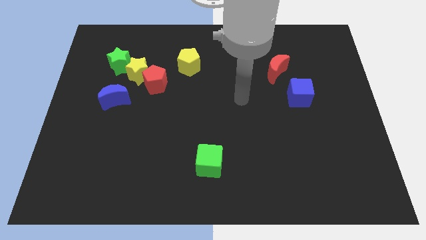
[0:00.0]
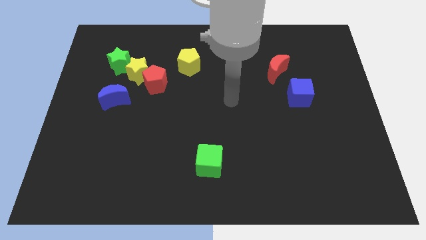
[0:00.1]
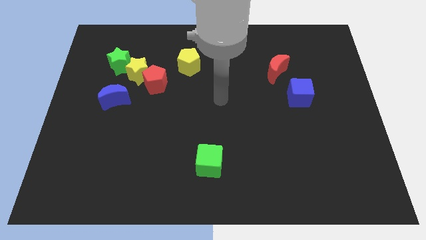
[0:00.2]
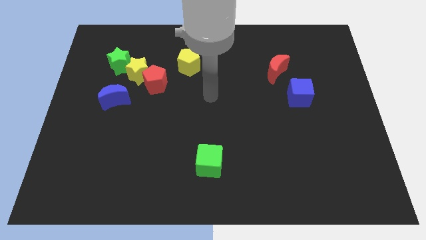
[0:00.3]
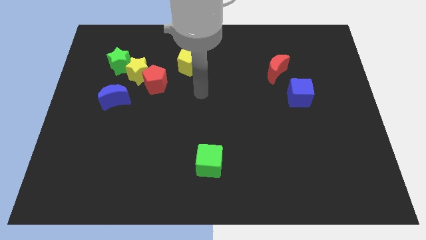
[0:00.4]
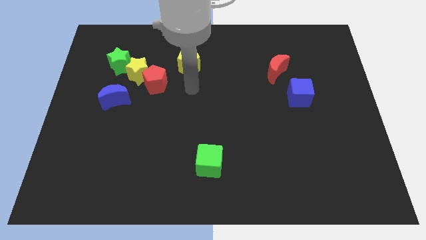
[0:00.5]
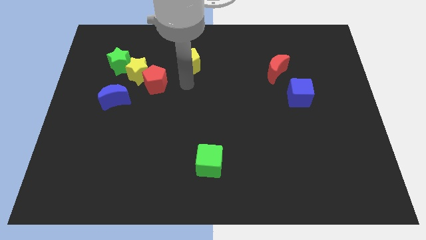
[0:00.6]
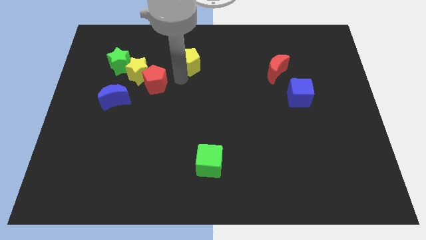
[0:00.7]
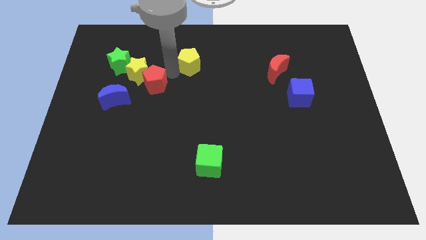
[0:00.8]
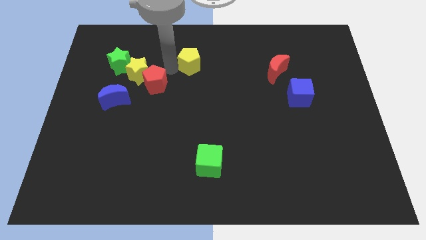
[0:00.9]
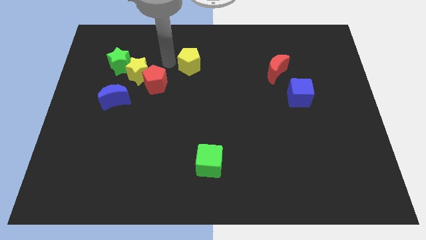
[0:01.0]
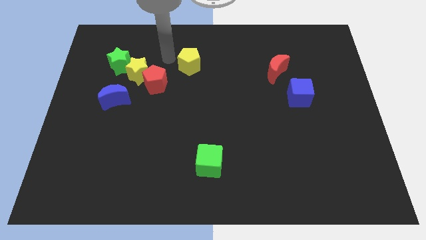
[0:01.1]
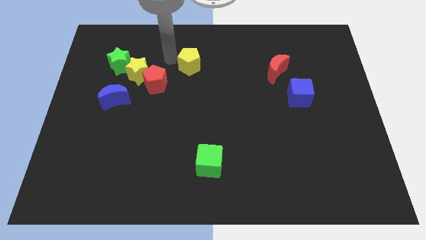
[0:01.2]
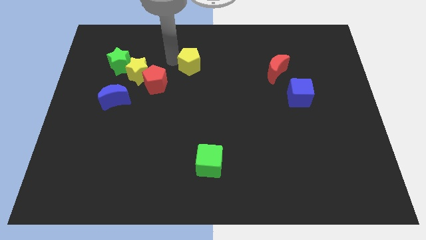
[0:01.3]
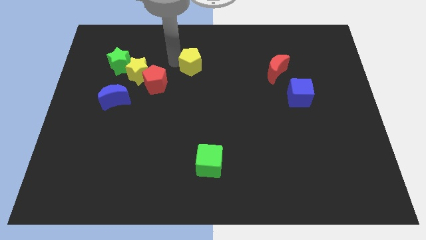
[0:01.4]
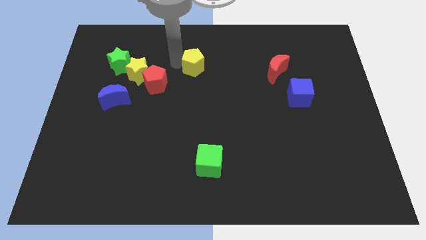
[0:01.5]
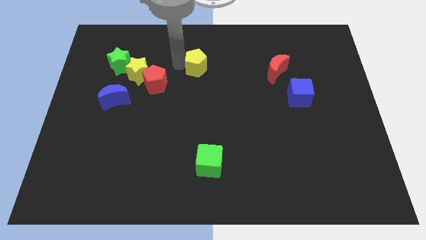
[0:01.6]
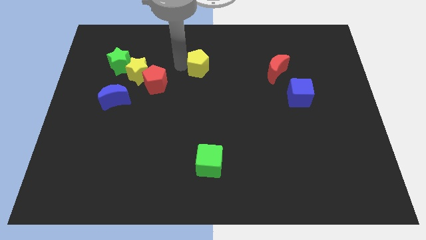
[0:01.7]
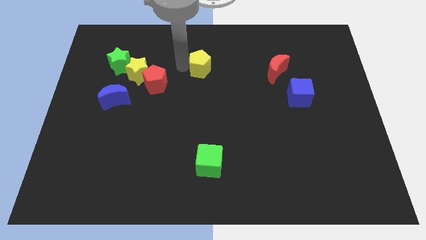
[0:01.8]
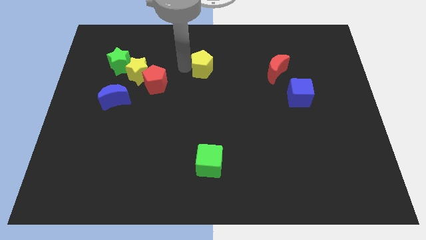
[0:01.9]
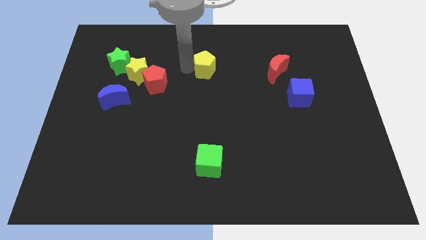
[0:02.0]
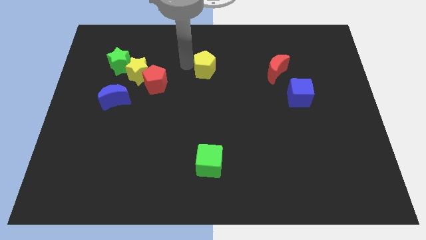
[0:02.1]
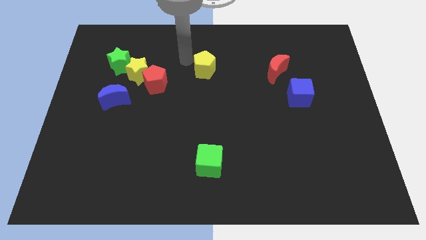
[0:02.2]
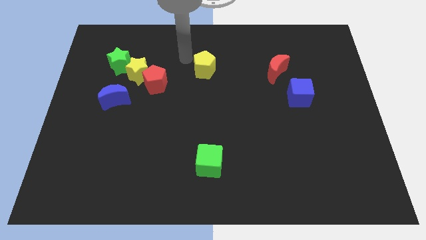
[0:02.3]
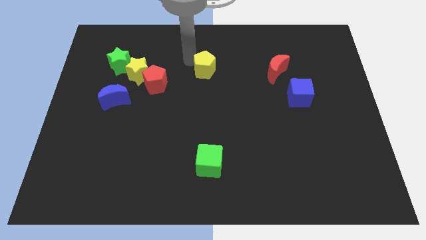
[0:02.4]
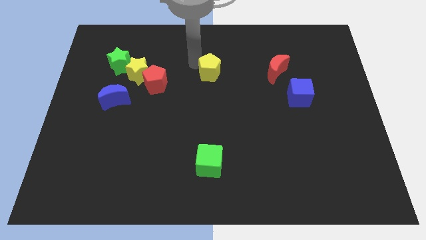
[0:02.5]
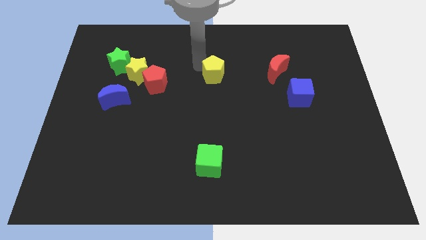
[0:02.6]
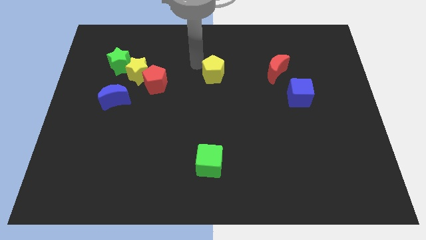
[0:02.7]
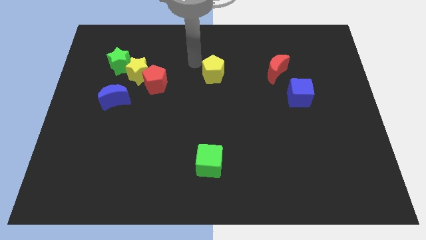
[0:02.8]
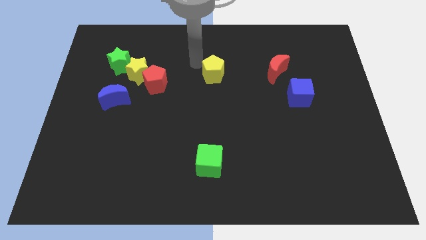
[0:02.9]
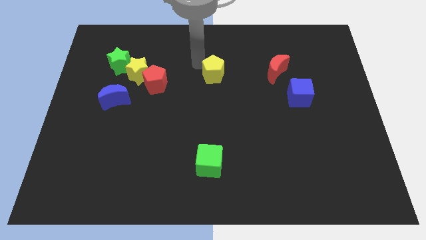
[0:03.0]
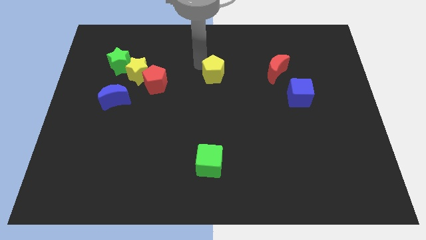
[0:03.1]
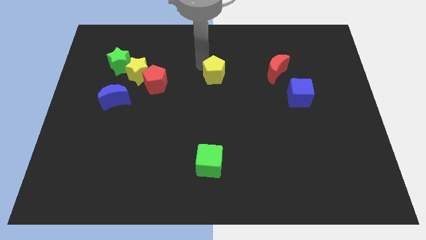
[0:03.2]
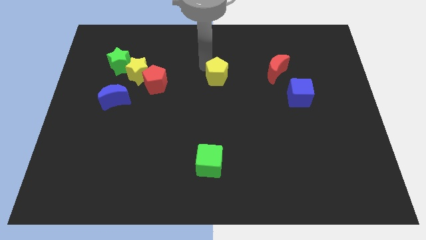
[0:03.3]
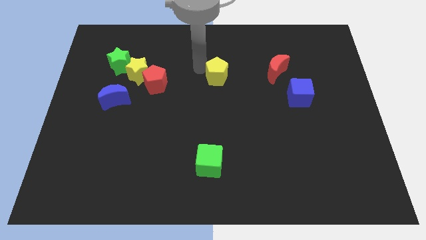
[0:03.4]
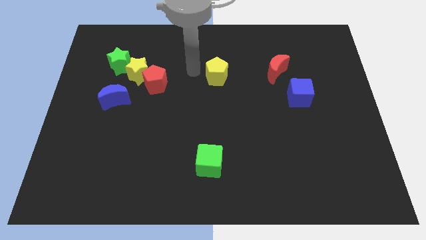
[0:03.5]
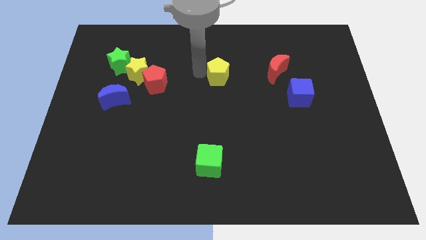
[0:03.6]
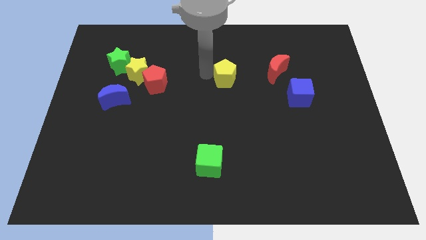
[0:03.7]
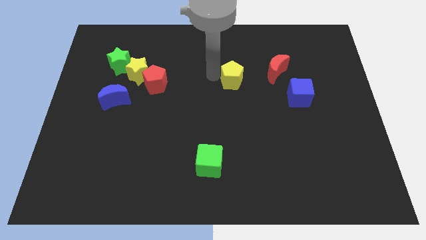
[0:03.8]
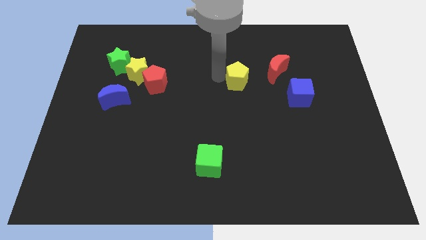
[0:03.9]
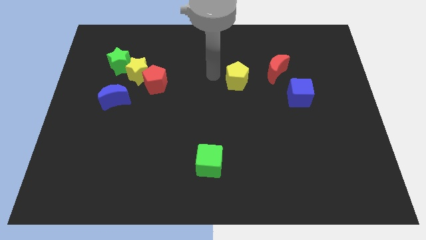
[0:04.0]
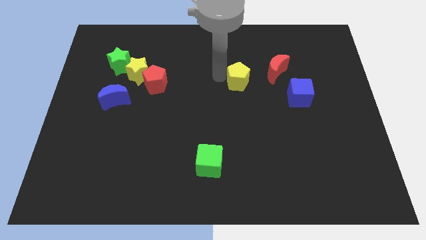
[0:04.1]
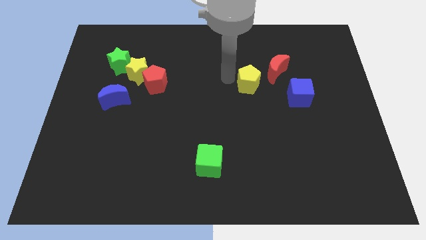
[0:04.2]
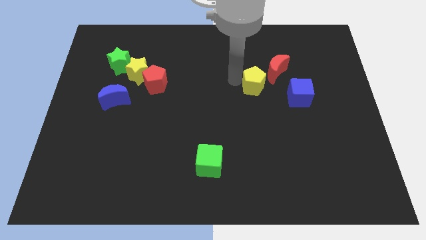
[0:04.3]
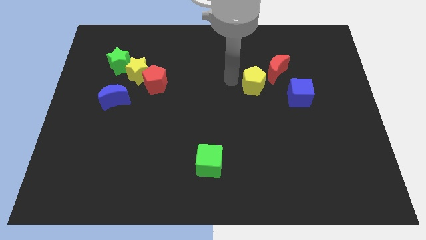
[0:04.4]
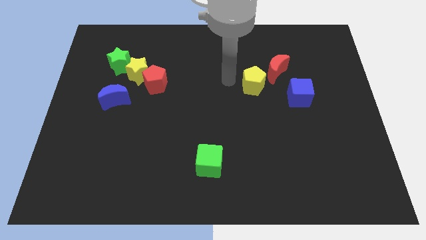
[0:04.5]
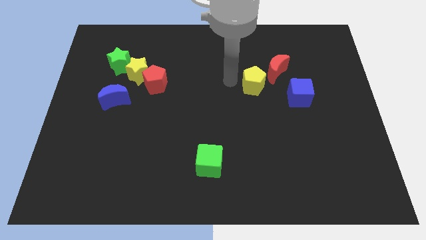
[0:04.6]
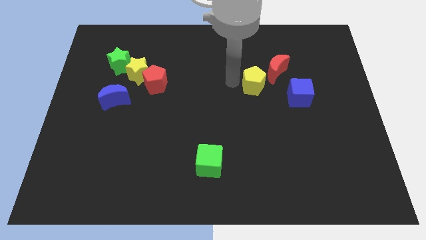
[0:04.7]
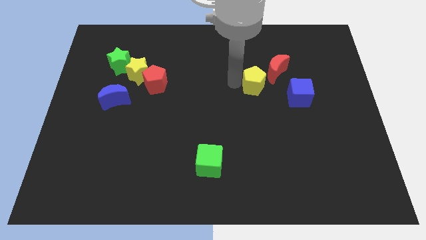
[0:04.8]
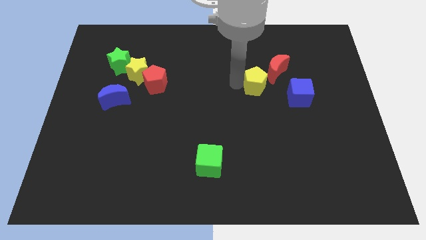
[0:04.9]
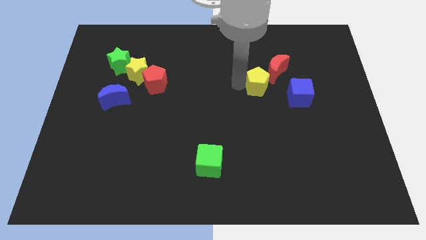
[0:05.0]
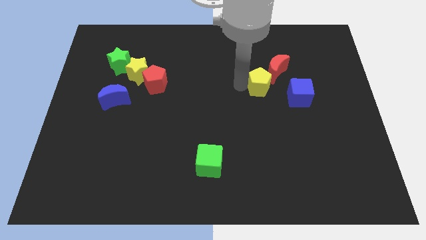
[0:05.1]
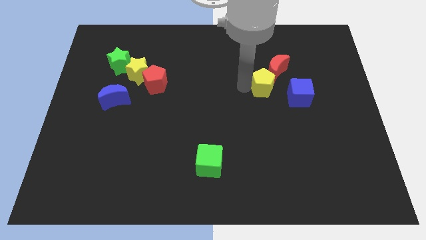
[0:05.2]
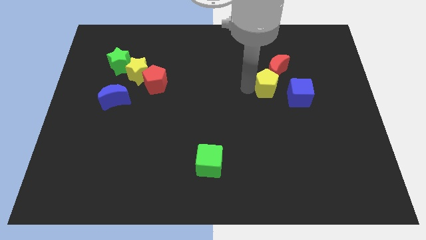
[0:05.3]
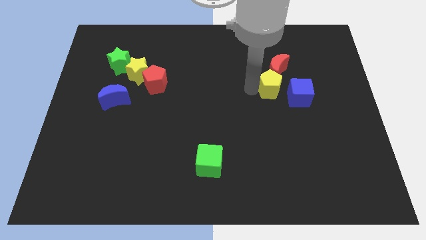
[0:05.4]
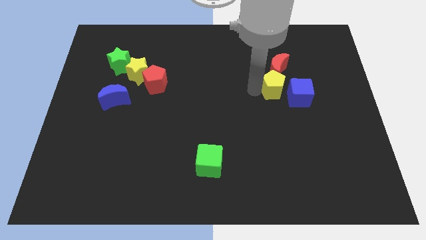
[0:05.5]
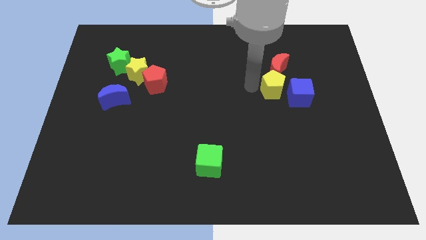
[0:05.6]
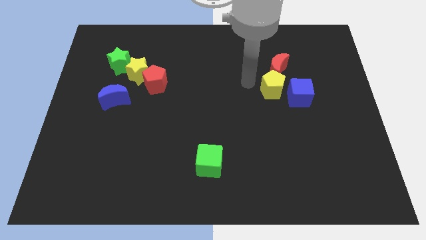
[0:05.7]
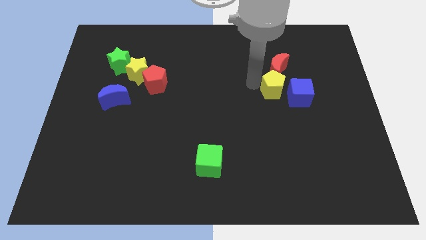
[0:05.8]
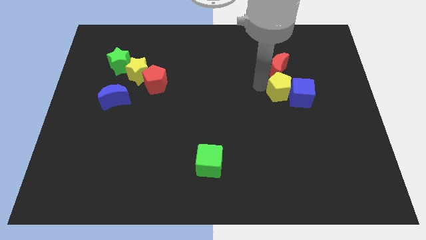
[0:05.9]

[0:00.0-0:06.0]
move the yellow pentagon towards the blue cube
